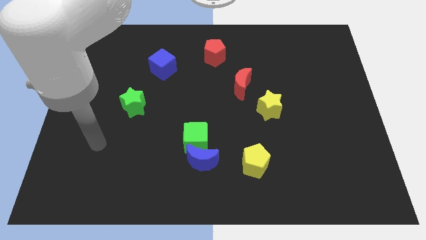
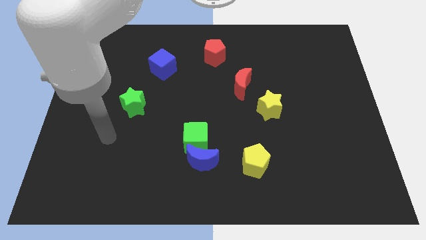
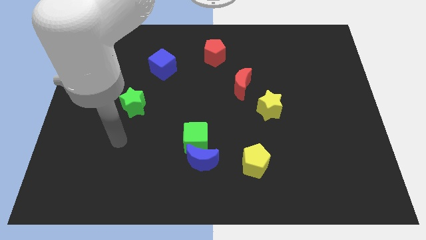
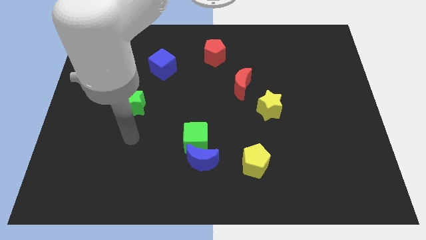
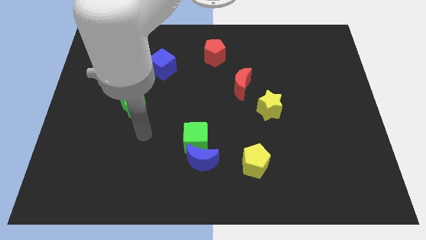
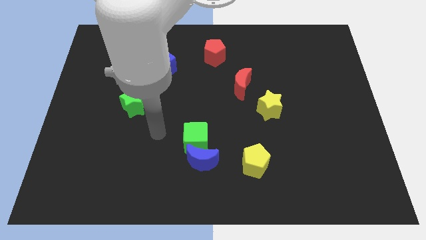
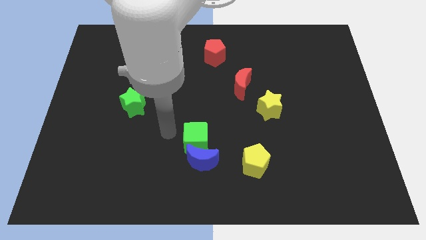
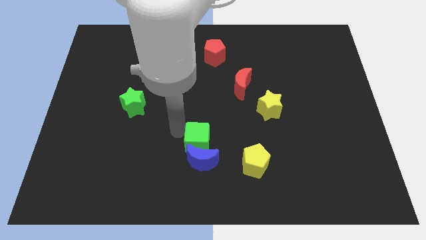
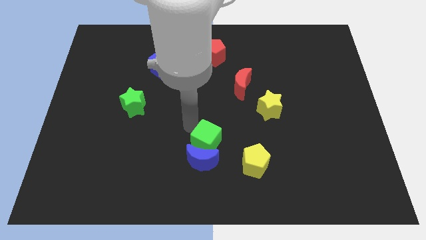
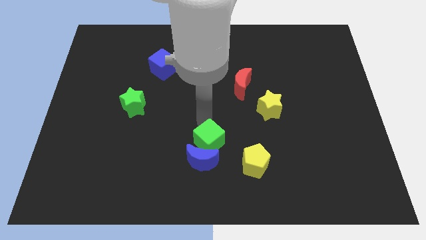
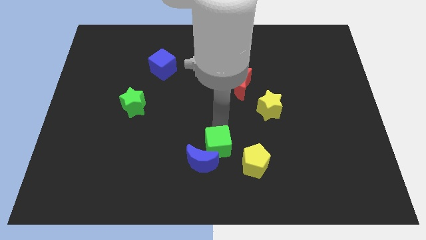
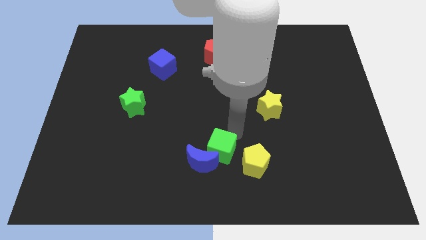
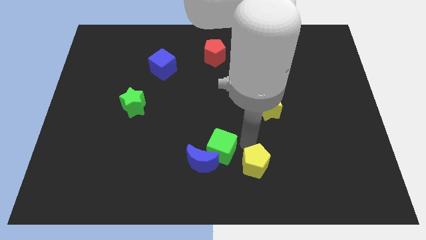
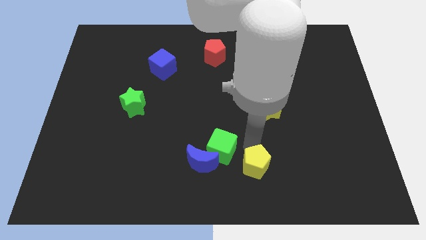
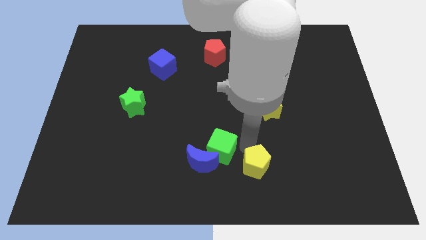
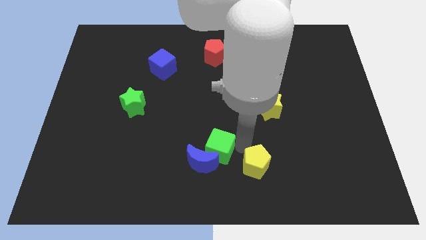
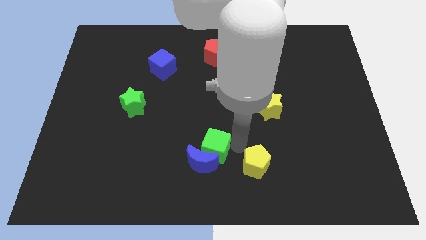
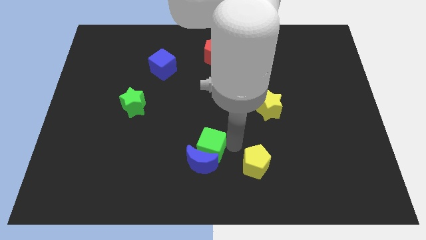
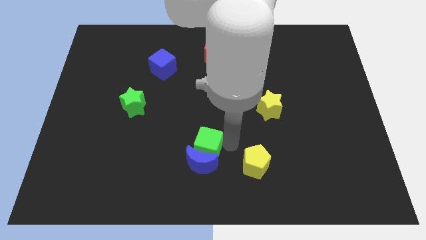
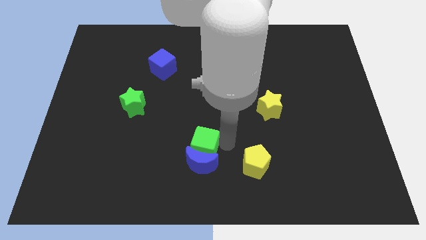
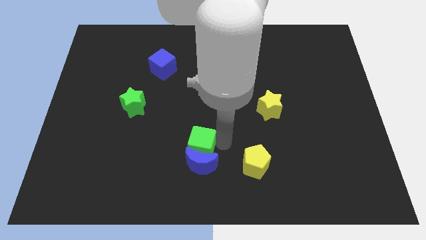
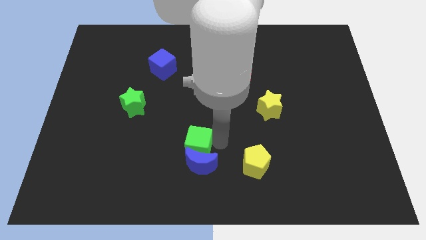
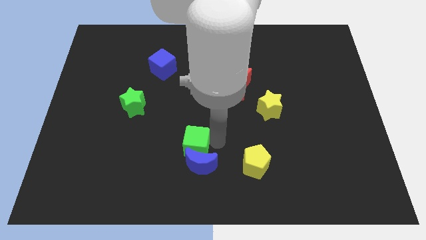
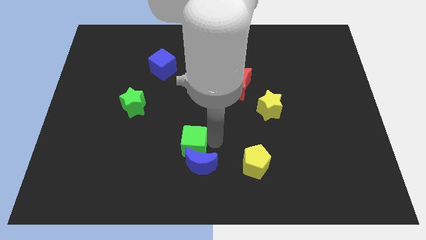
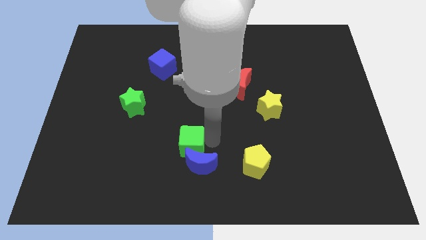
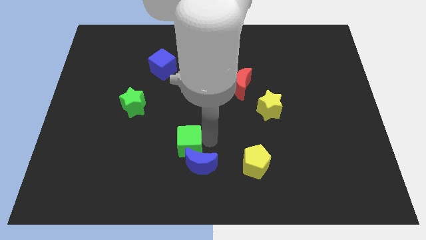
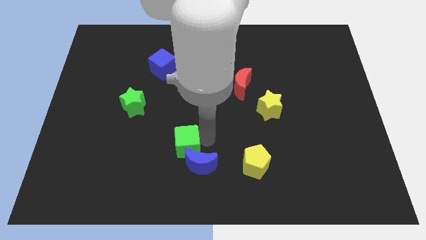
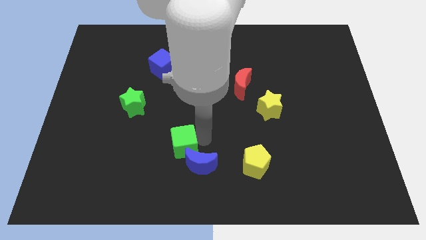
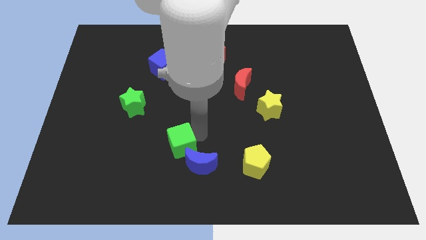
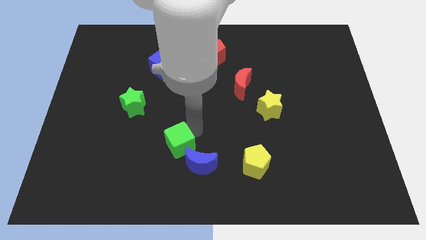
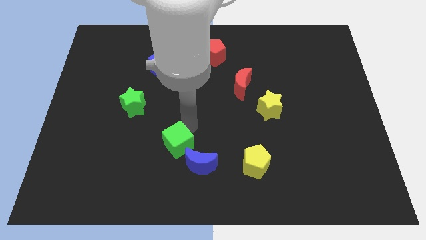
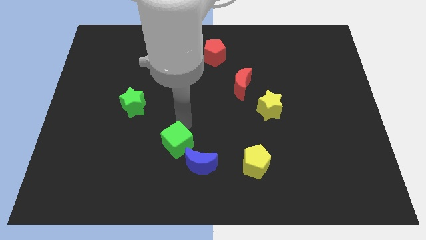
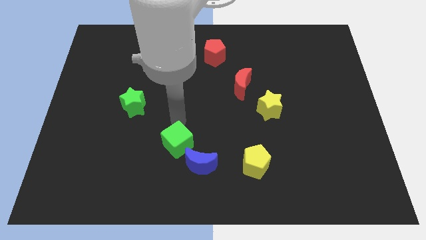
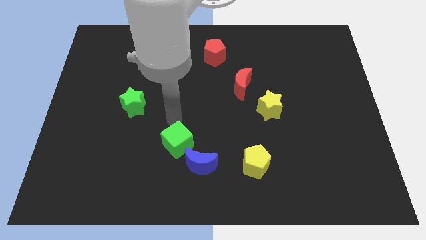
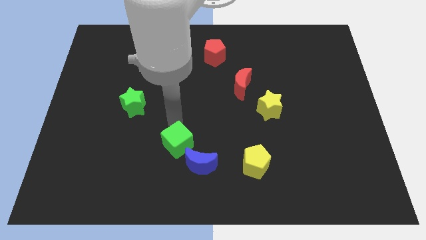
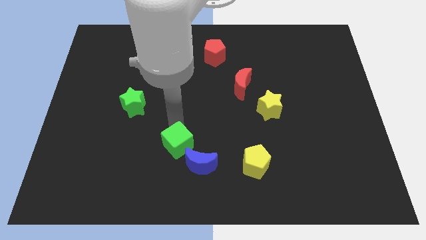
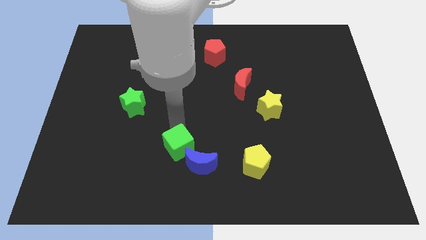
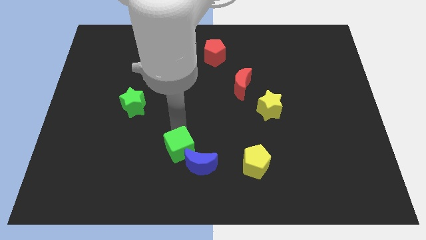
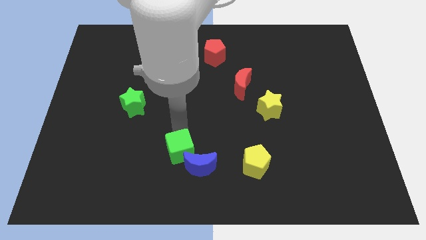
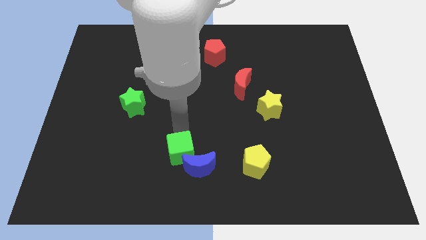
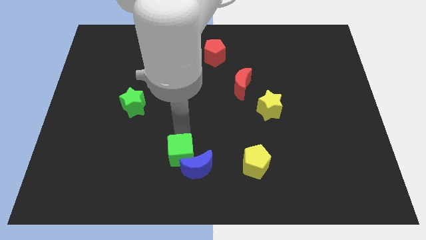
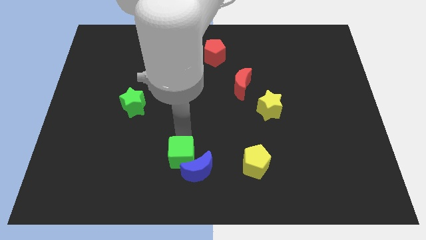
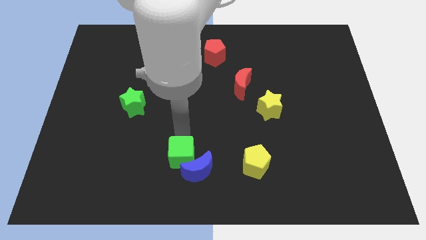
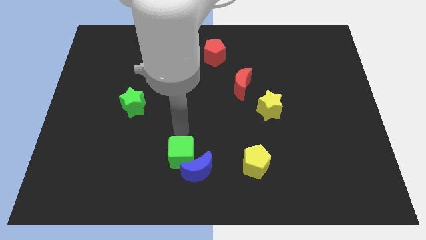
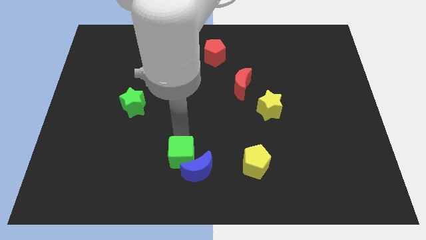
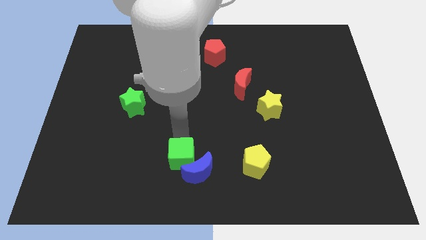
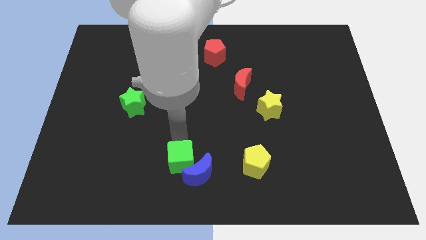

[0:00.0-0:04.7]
put the green cube to the bottom

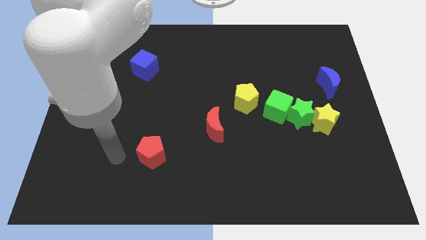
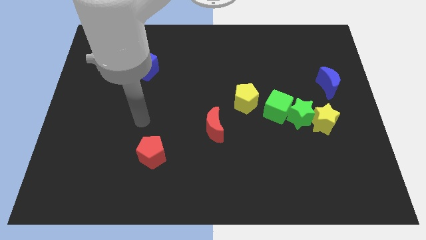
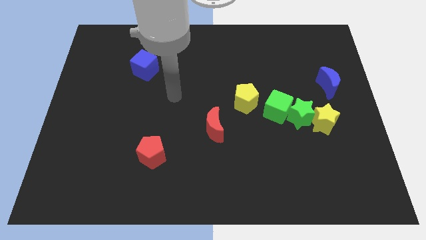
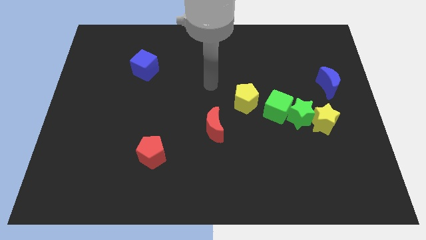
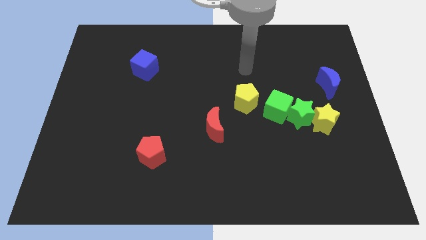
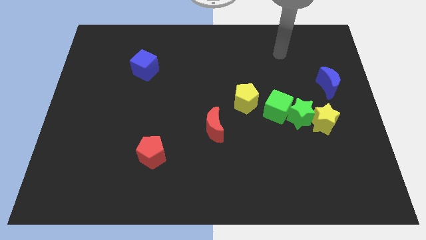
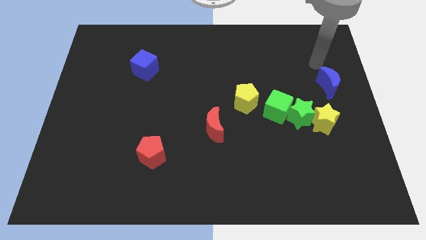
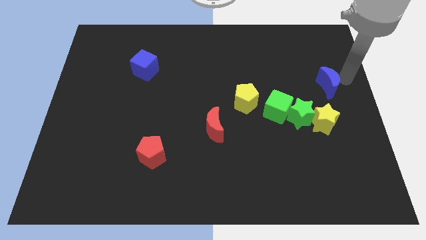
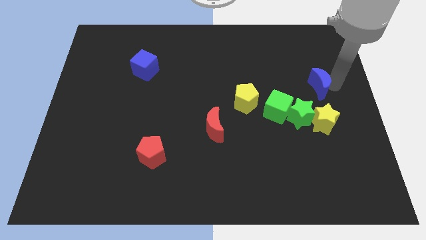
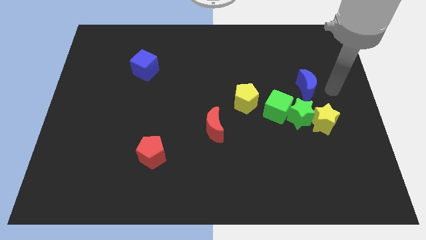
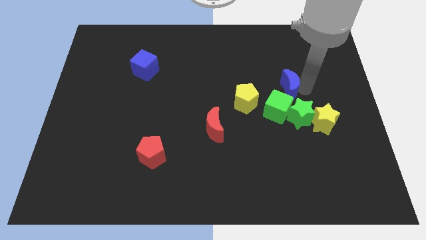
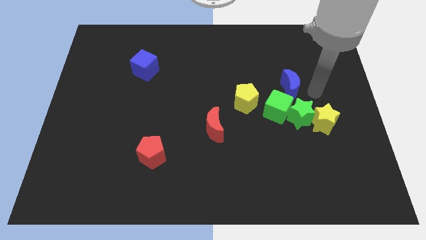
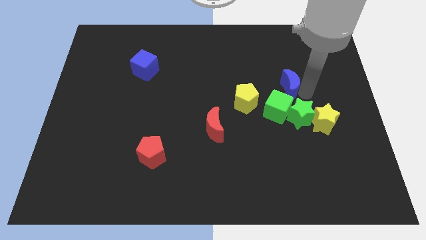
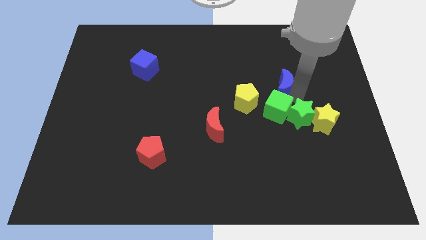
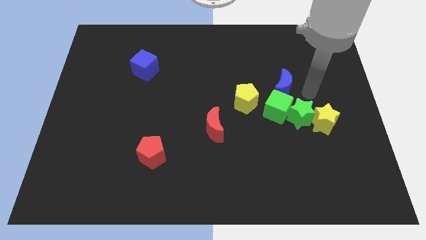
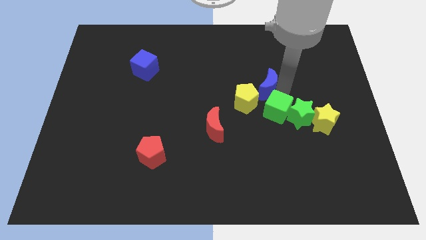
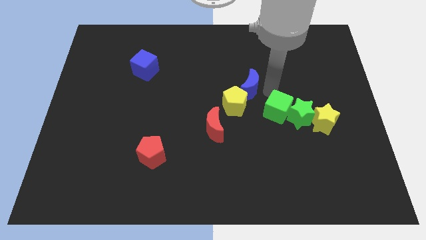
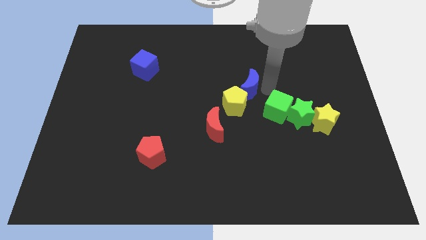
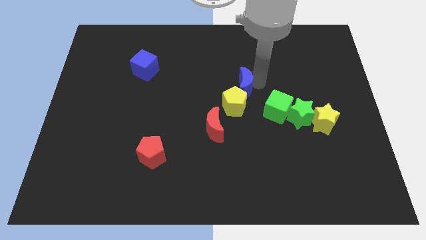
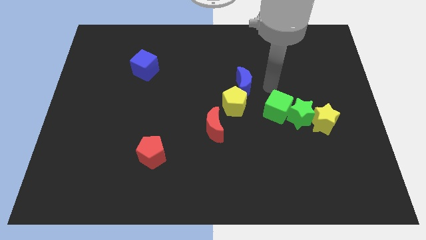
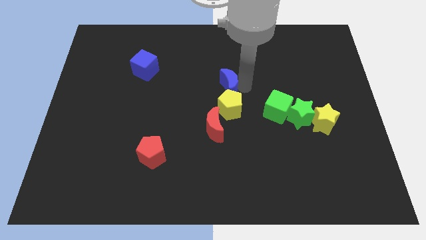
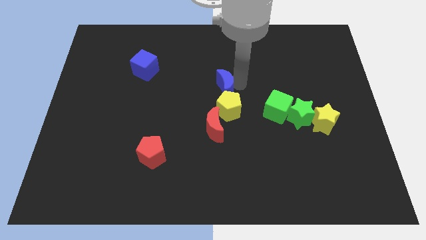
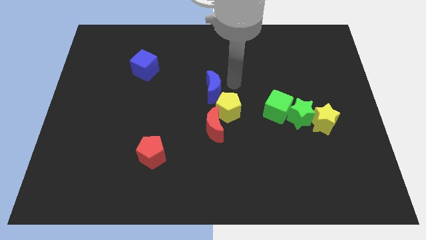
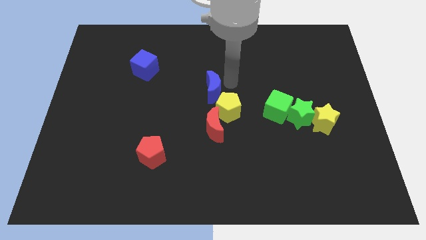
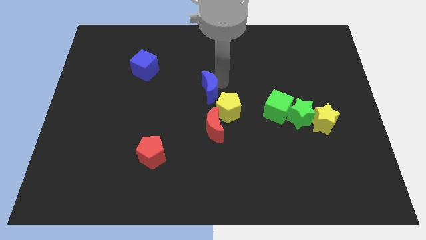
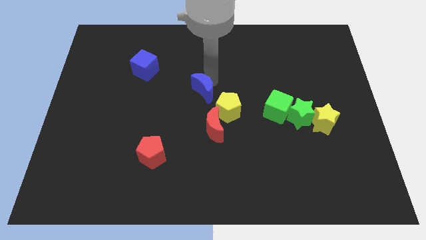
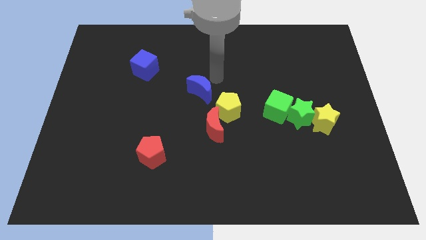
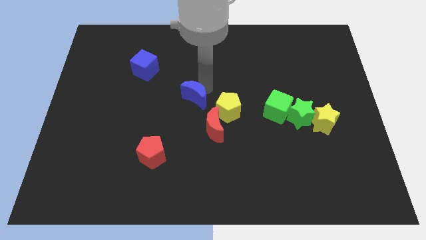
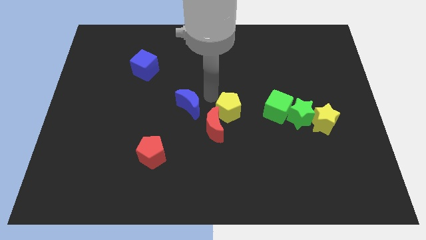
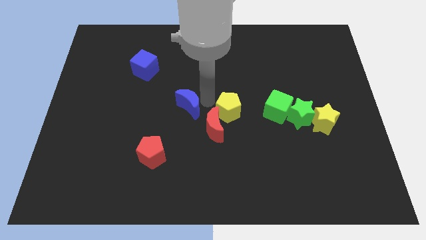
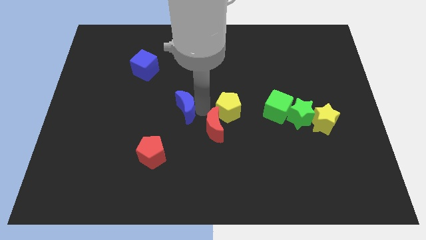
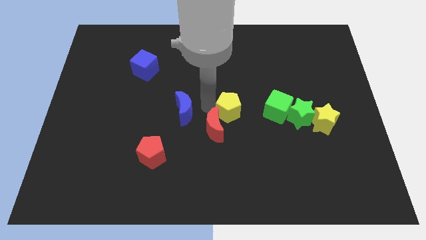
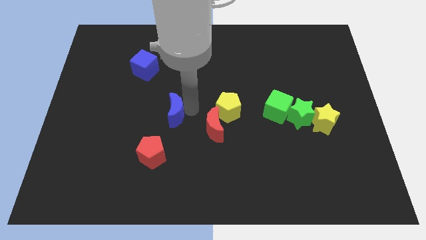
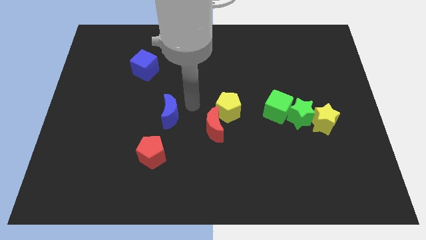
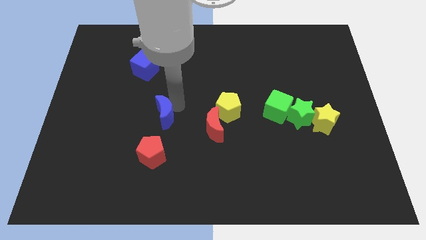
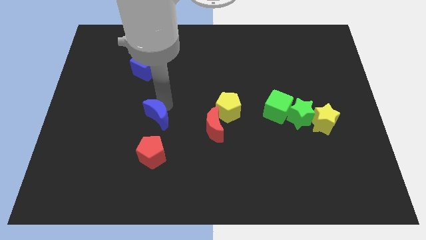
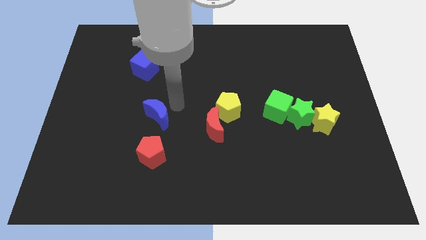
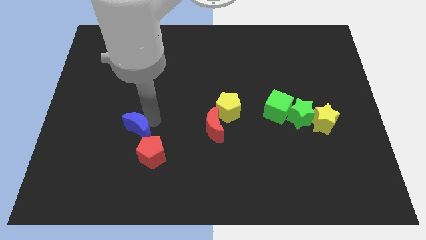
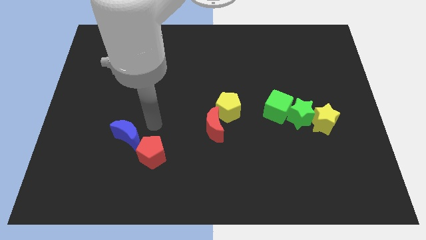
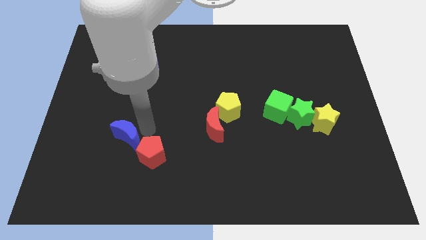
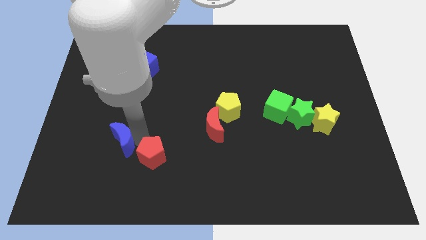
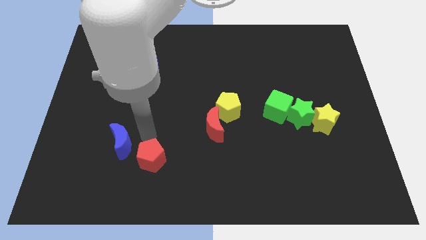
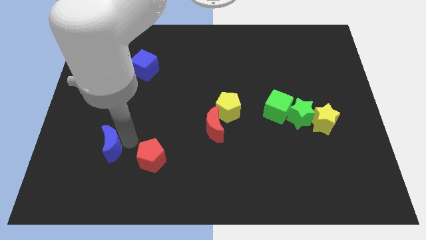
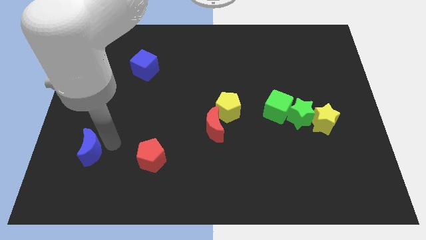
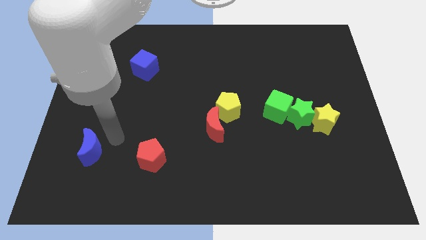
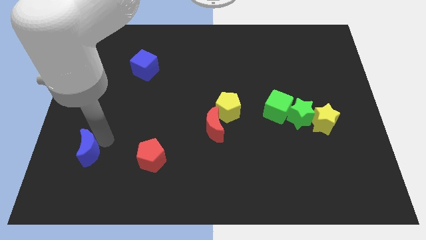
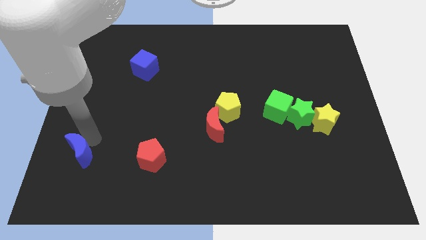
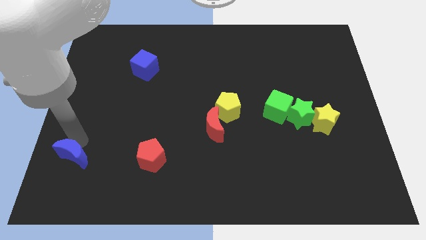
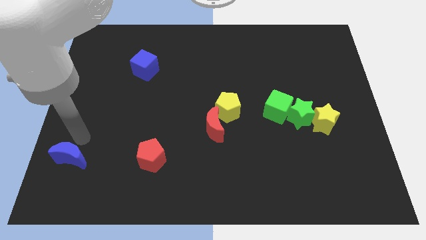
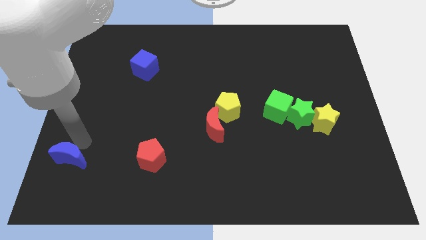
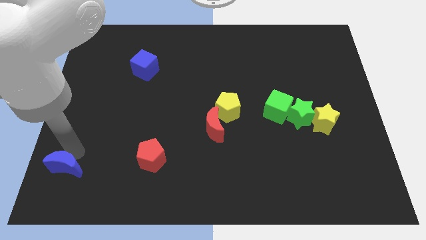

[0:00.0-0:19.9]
move the blue moon to the bottom left of the board
